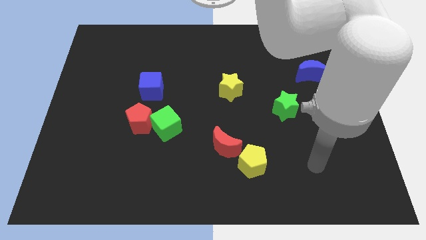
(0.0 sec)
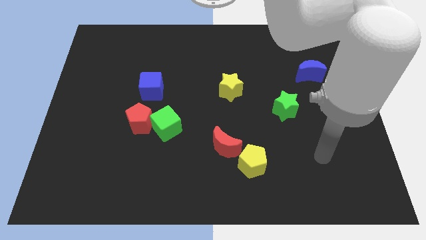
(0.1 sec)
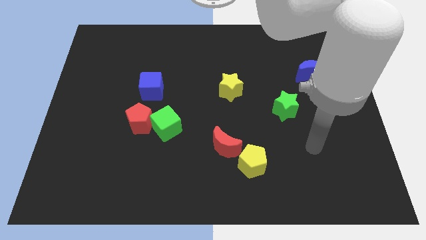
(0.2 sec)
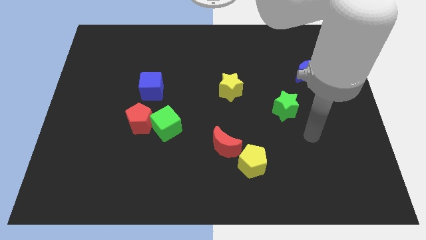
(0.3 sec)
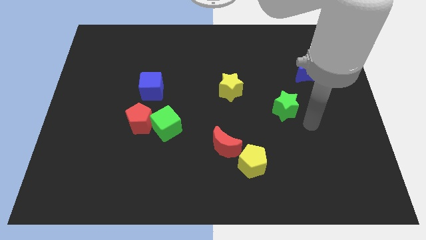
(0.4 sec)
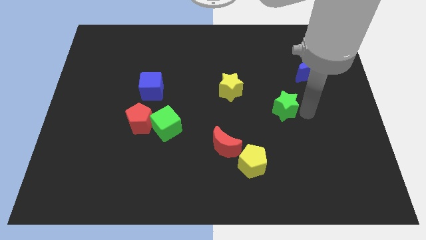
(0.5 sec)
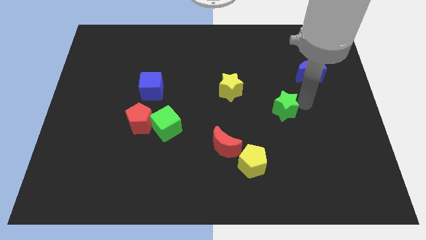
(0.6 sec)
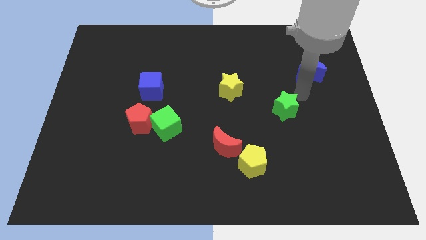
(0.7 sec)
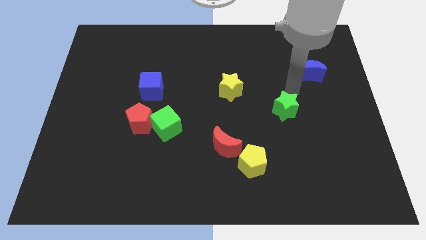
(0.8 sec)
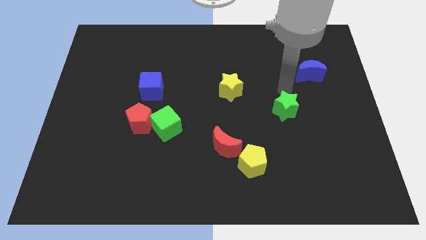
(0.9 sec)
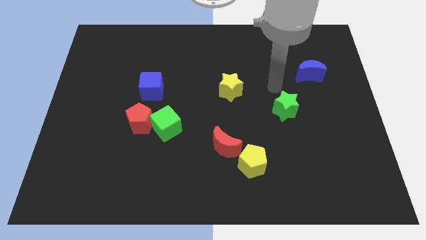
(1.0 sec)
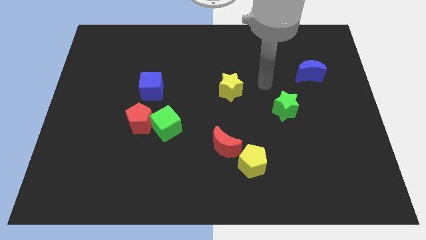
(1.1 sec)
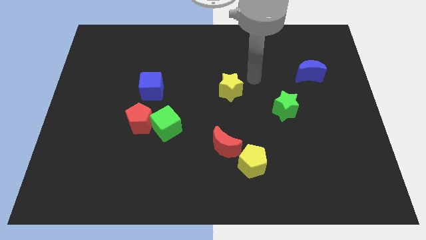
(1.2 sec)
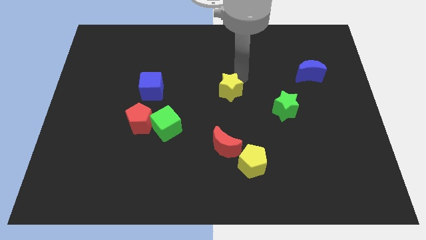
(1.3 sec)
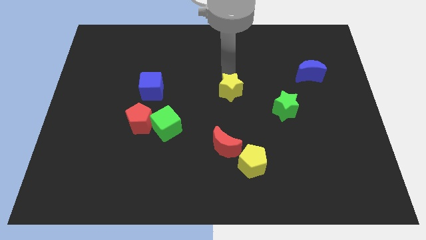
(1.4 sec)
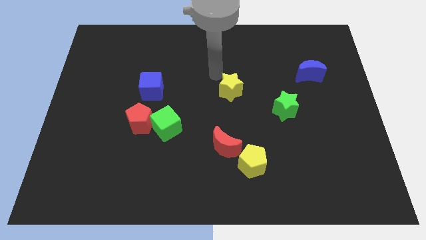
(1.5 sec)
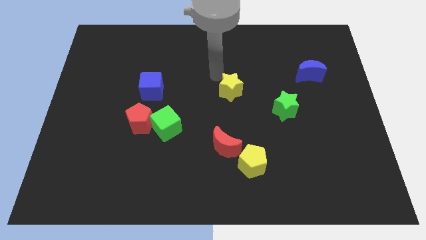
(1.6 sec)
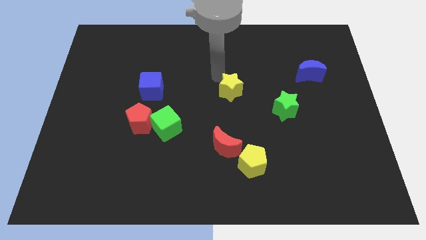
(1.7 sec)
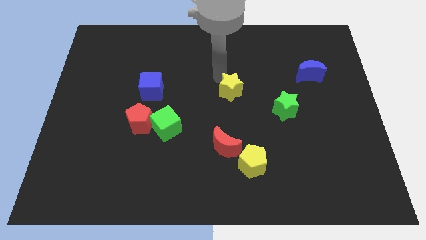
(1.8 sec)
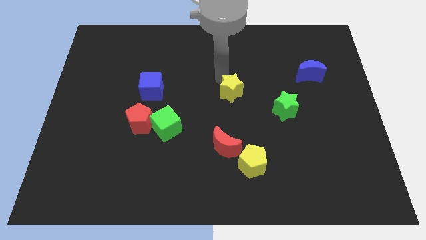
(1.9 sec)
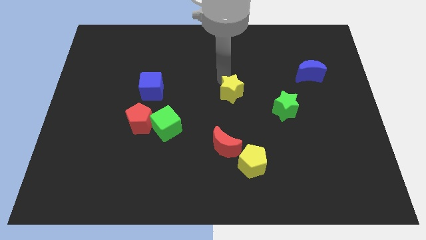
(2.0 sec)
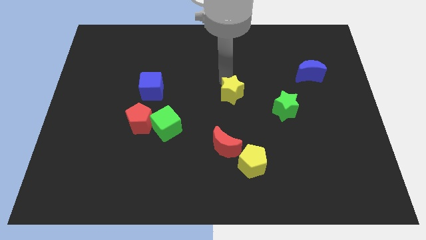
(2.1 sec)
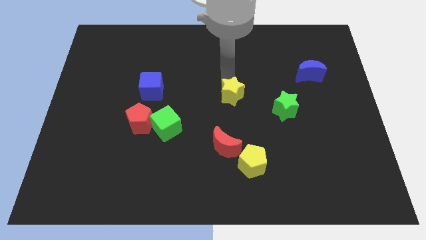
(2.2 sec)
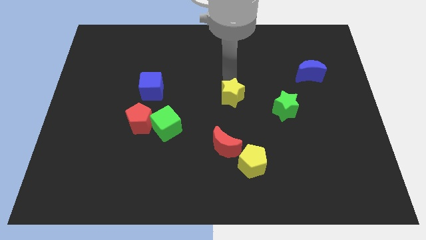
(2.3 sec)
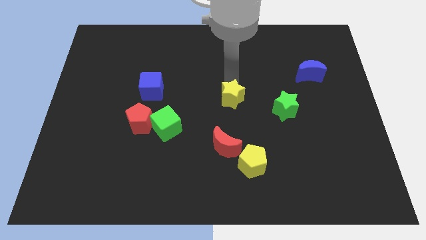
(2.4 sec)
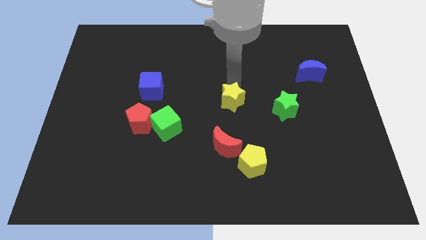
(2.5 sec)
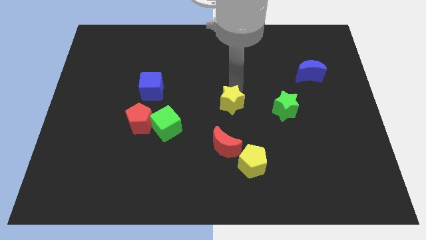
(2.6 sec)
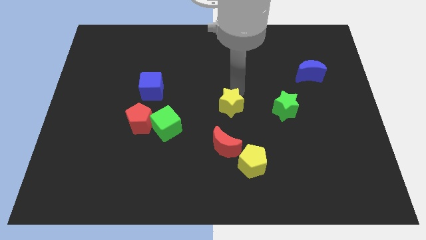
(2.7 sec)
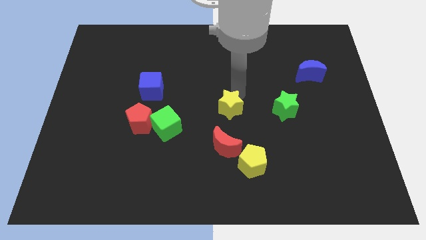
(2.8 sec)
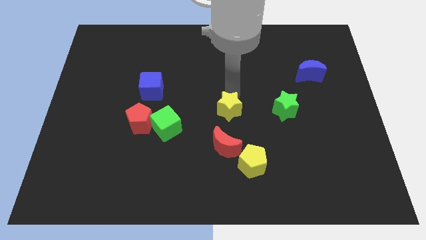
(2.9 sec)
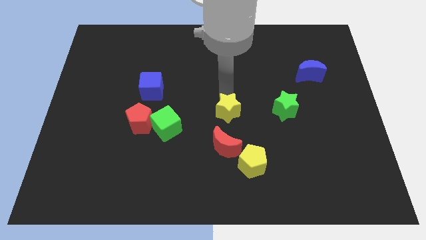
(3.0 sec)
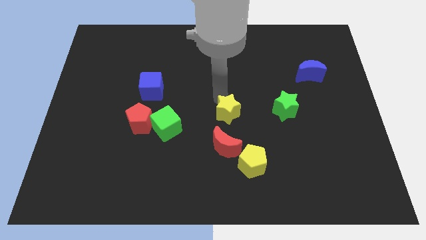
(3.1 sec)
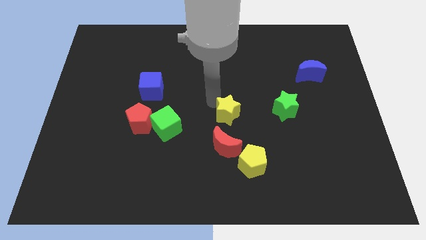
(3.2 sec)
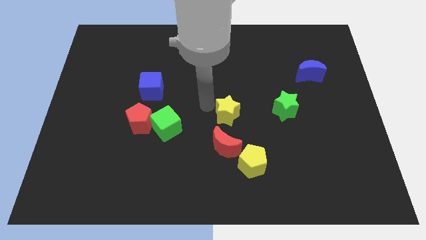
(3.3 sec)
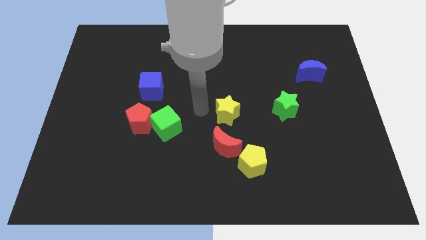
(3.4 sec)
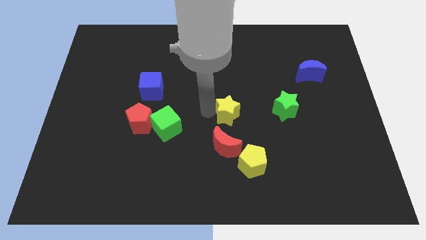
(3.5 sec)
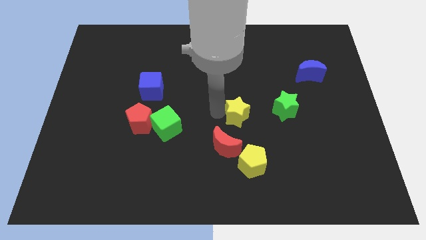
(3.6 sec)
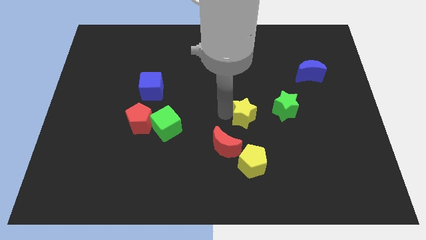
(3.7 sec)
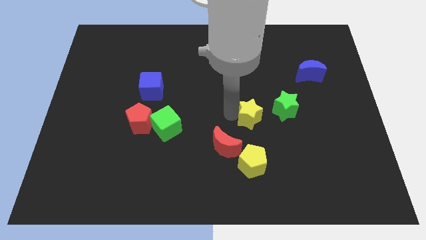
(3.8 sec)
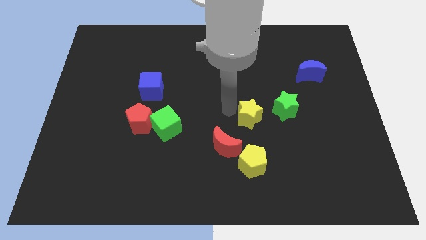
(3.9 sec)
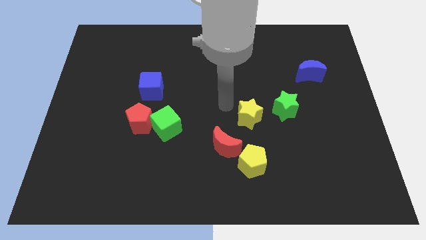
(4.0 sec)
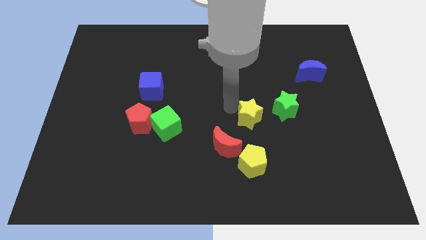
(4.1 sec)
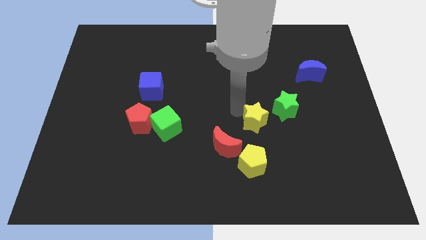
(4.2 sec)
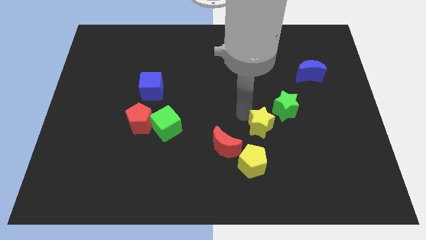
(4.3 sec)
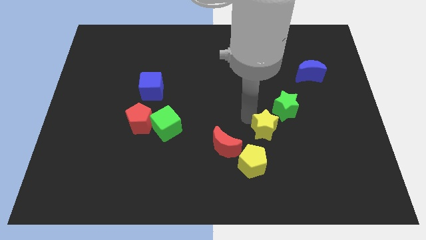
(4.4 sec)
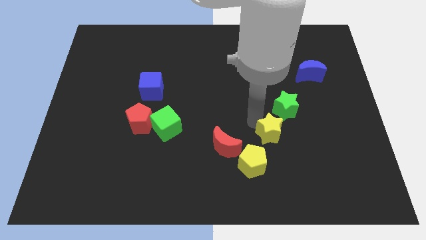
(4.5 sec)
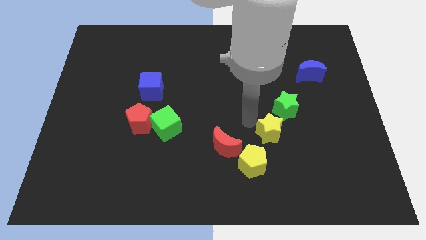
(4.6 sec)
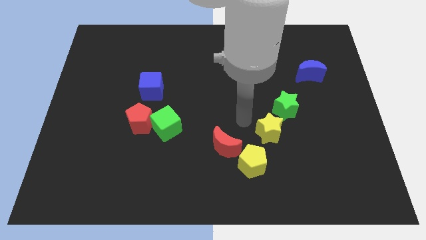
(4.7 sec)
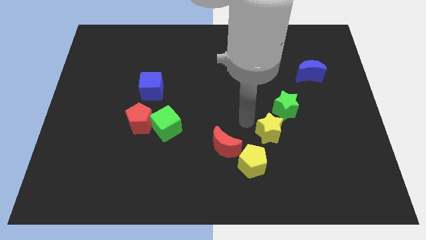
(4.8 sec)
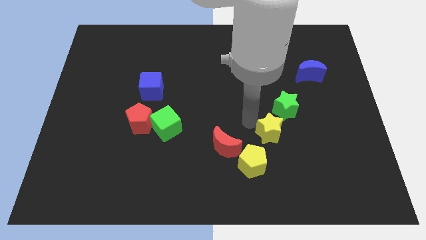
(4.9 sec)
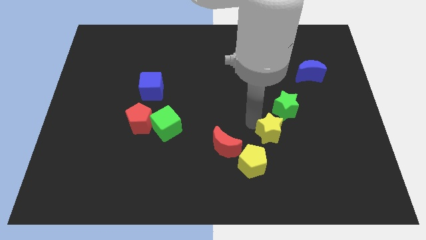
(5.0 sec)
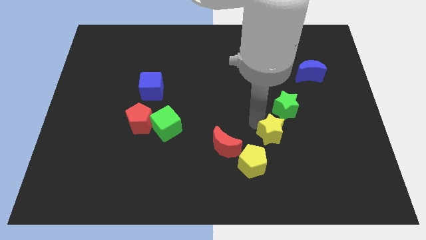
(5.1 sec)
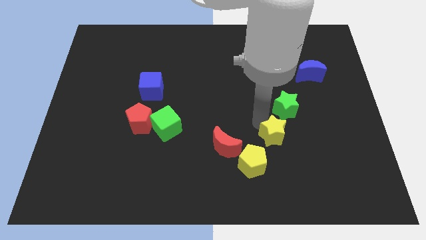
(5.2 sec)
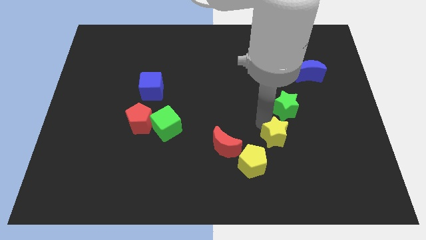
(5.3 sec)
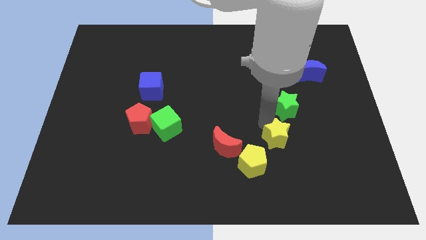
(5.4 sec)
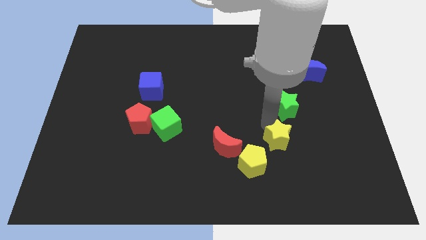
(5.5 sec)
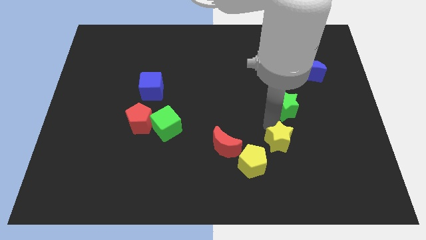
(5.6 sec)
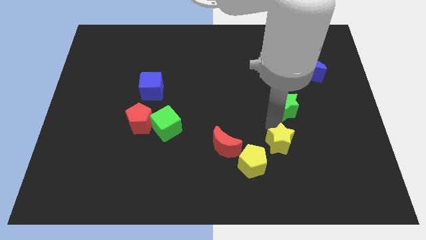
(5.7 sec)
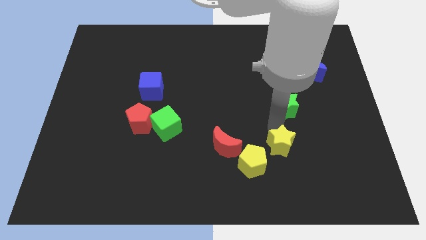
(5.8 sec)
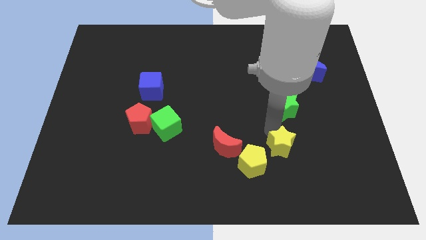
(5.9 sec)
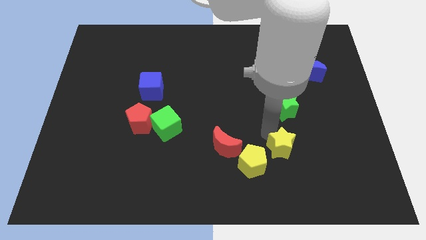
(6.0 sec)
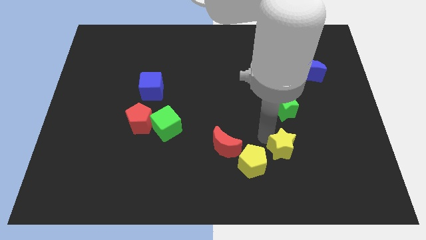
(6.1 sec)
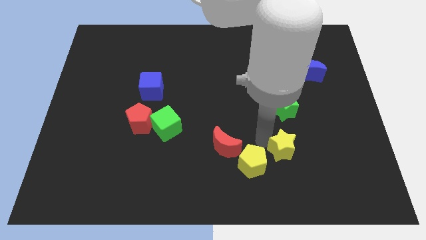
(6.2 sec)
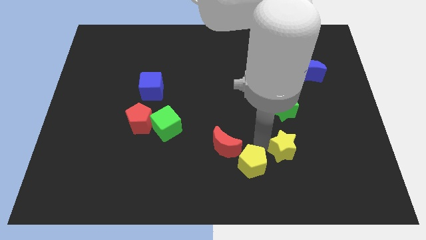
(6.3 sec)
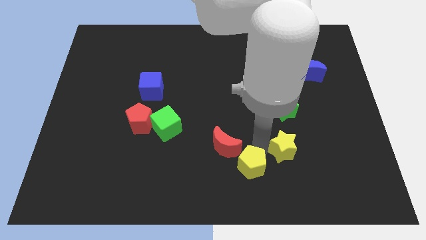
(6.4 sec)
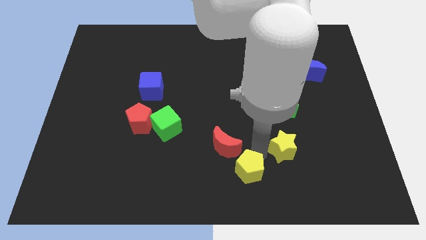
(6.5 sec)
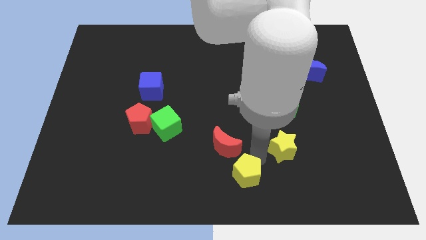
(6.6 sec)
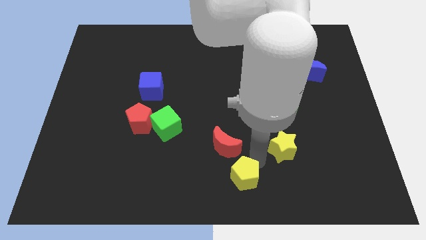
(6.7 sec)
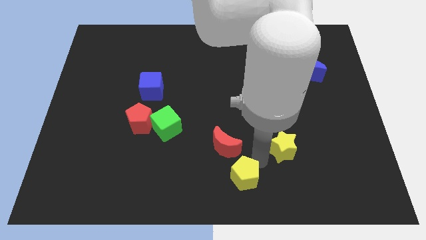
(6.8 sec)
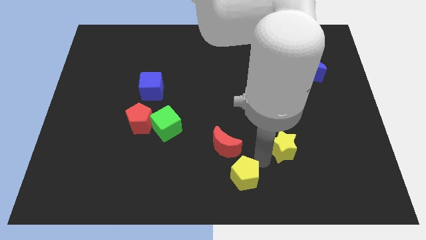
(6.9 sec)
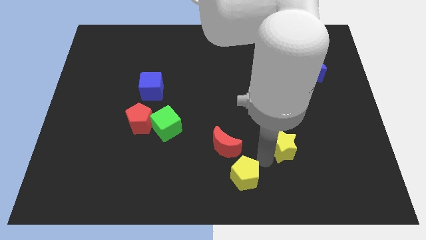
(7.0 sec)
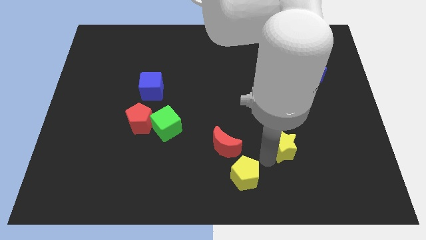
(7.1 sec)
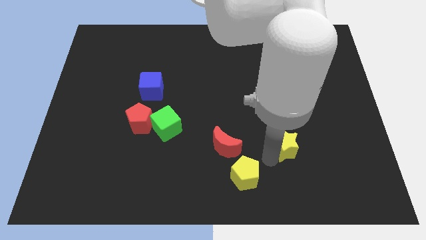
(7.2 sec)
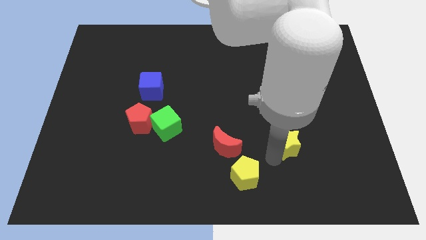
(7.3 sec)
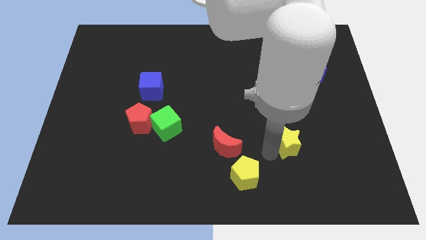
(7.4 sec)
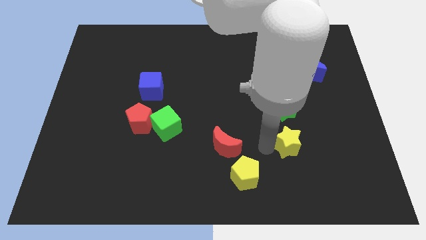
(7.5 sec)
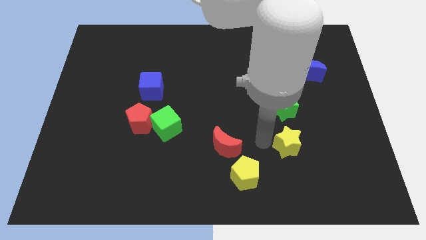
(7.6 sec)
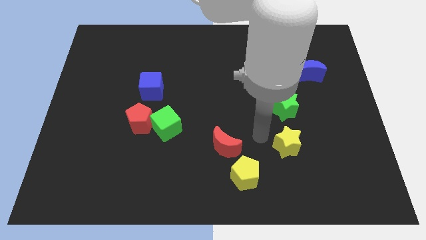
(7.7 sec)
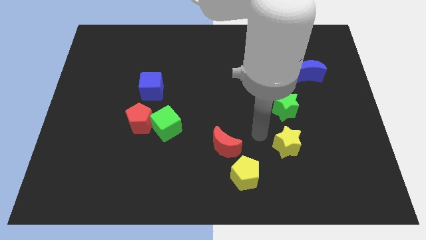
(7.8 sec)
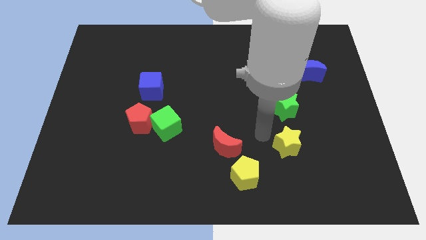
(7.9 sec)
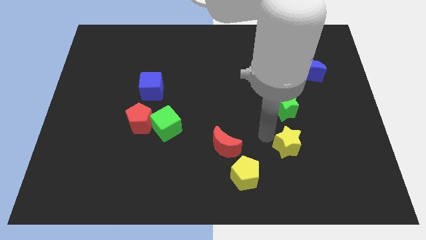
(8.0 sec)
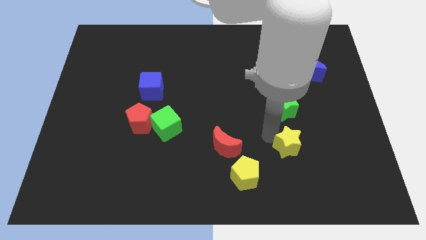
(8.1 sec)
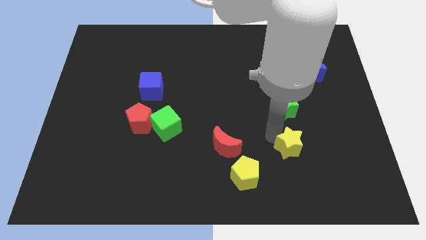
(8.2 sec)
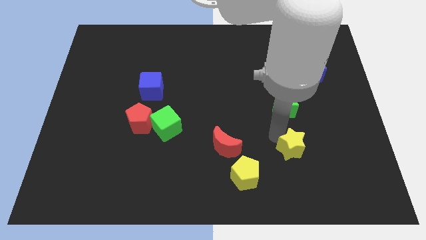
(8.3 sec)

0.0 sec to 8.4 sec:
move the yellow star down and to the right diagonally
